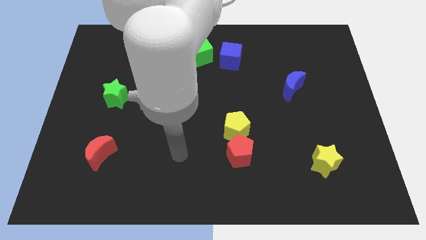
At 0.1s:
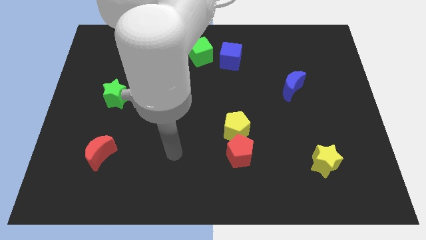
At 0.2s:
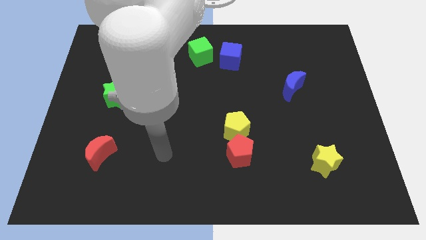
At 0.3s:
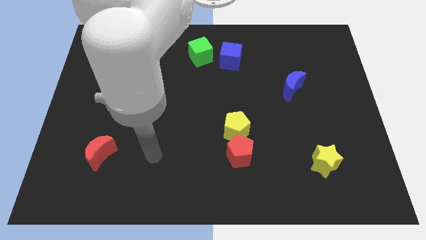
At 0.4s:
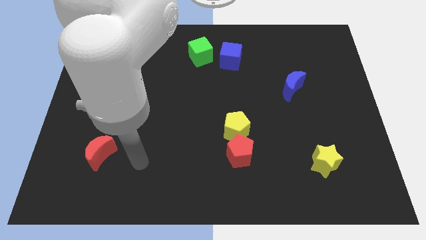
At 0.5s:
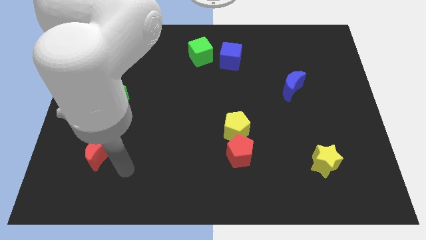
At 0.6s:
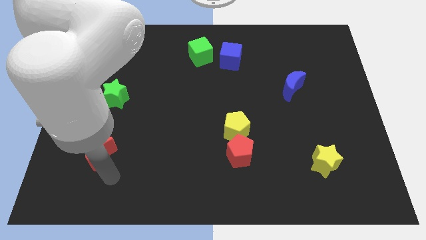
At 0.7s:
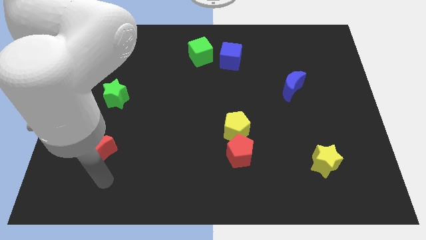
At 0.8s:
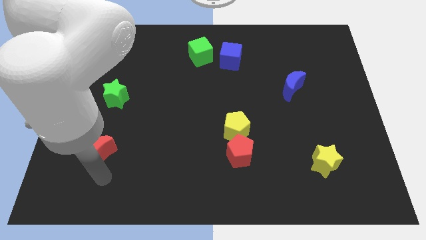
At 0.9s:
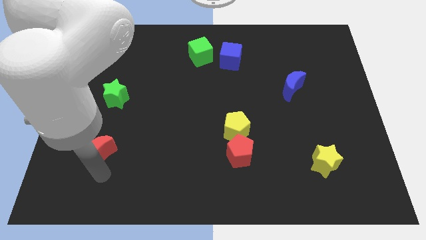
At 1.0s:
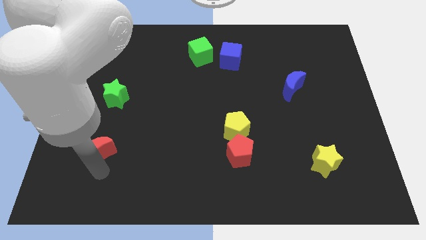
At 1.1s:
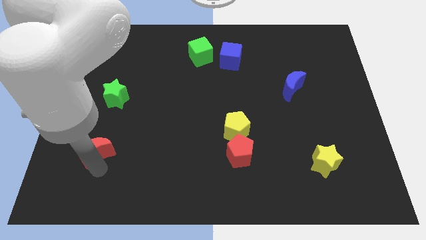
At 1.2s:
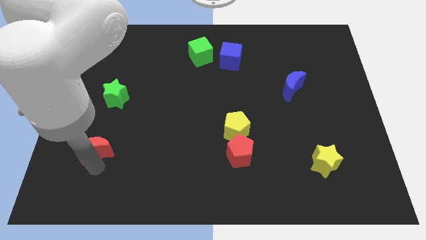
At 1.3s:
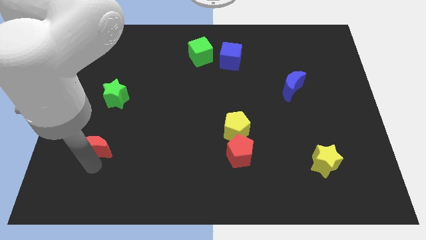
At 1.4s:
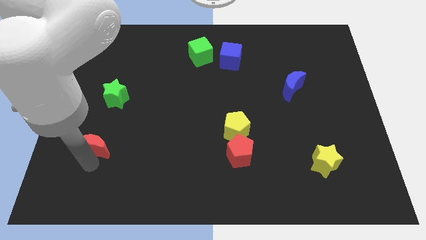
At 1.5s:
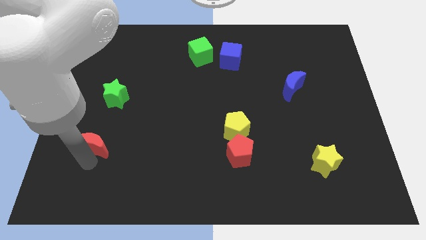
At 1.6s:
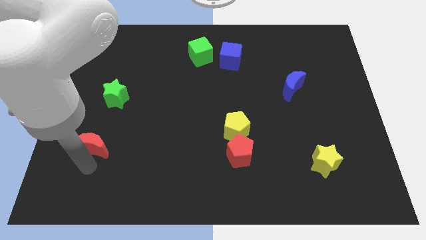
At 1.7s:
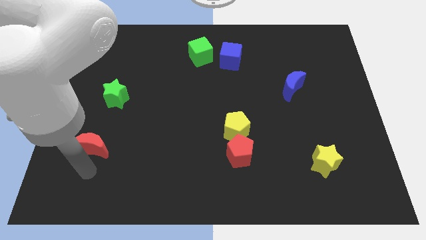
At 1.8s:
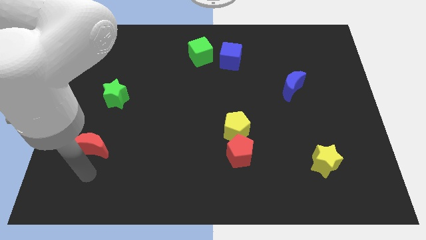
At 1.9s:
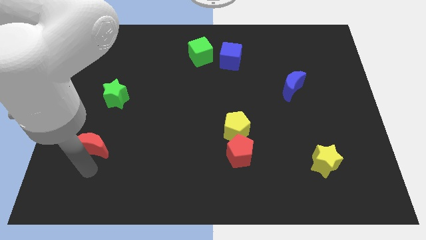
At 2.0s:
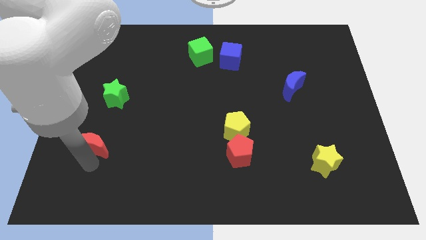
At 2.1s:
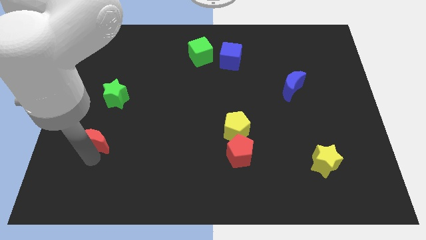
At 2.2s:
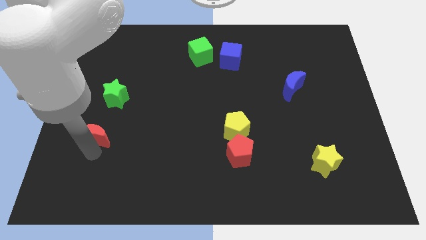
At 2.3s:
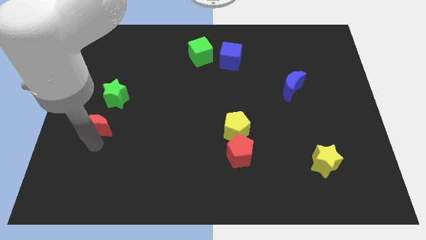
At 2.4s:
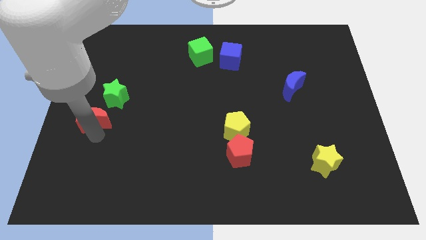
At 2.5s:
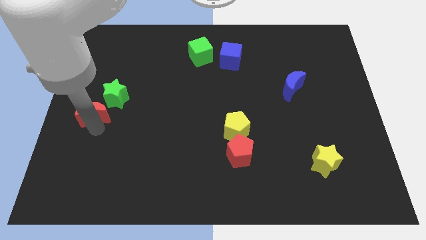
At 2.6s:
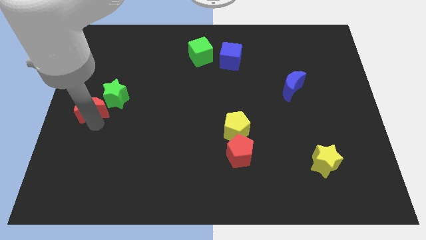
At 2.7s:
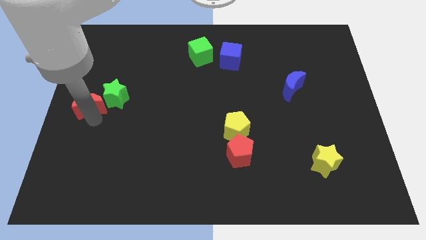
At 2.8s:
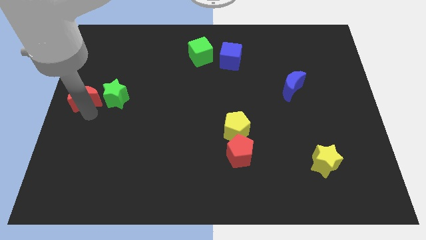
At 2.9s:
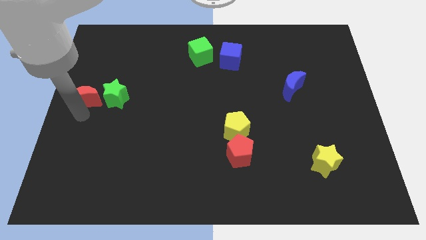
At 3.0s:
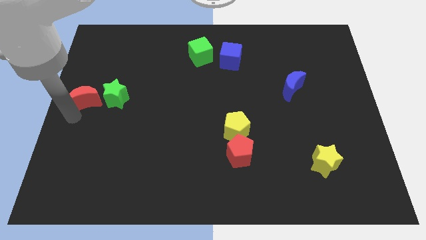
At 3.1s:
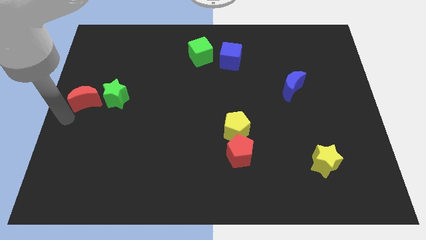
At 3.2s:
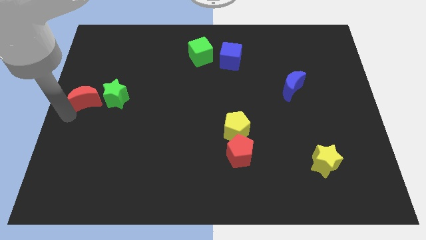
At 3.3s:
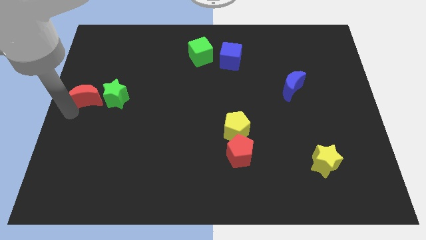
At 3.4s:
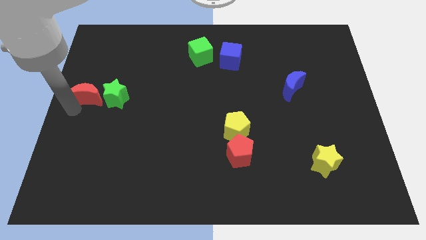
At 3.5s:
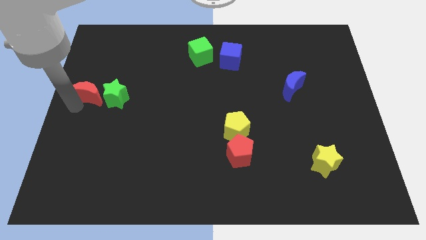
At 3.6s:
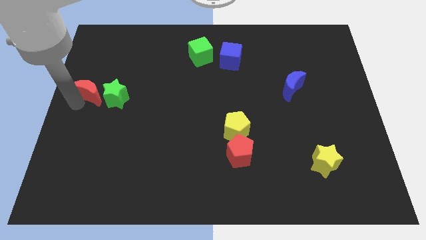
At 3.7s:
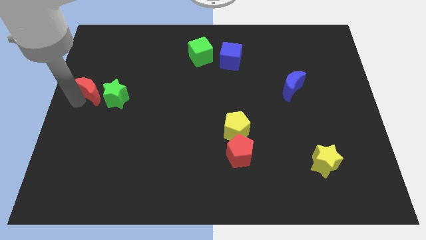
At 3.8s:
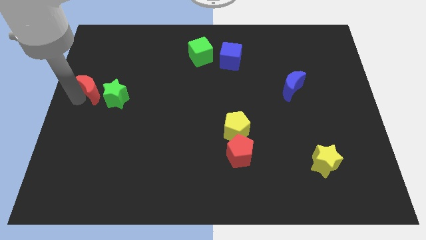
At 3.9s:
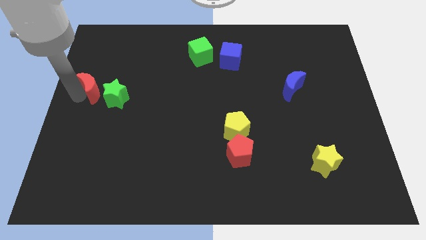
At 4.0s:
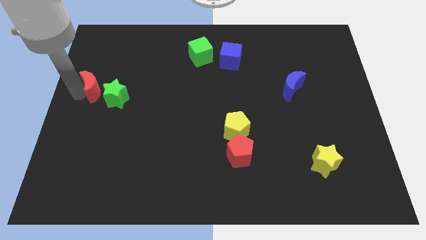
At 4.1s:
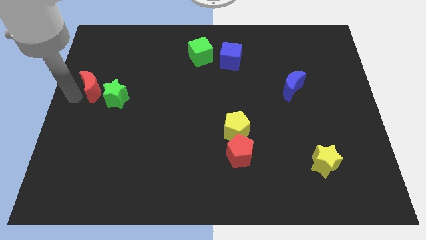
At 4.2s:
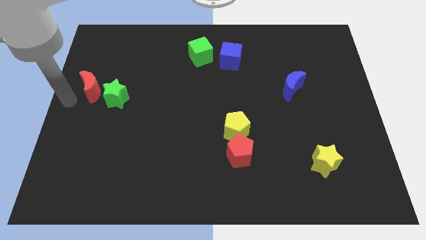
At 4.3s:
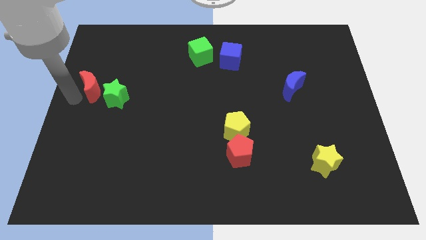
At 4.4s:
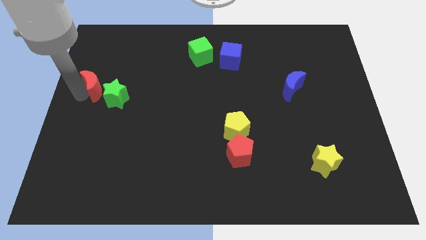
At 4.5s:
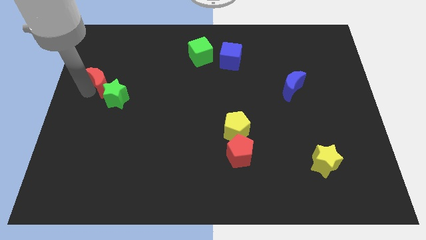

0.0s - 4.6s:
slide the red moon to the top of the green star

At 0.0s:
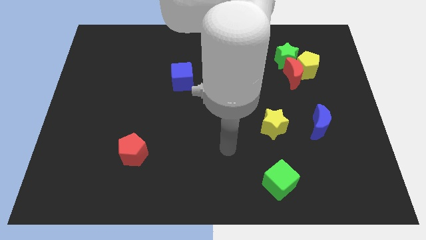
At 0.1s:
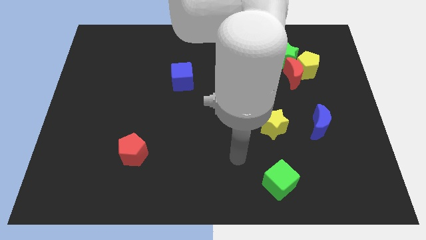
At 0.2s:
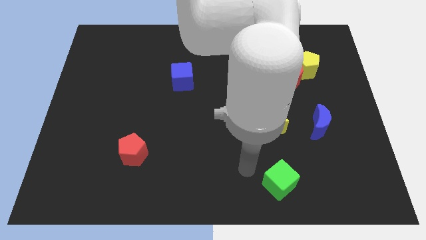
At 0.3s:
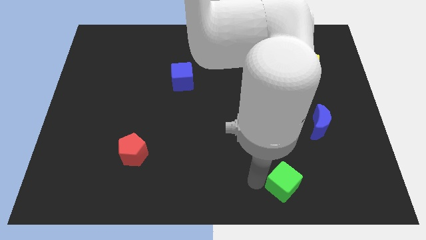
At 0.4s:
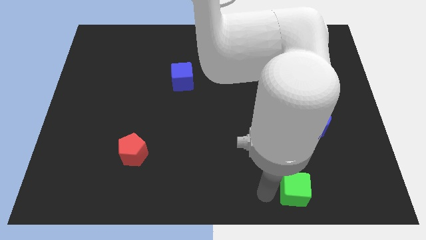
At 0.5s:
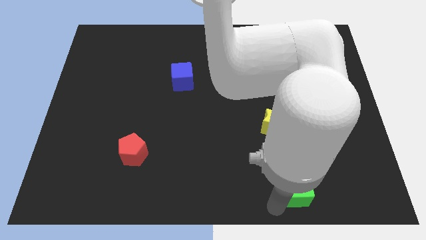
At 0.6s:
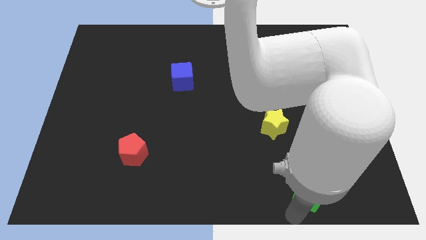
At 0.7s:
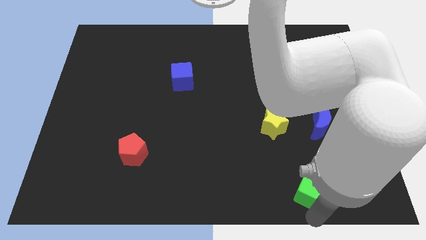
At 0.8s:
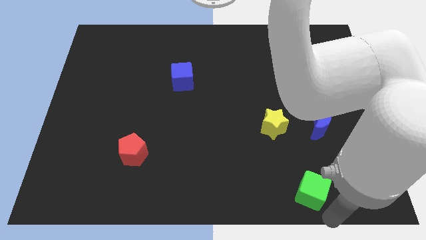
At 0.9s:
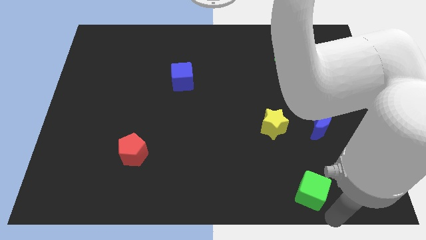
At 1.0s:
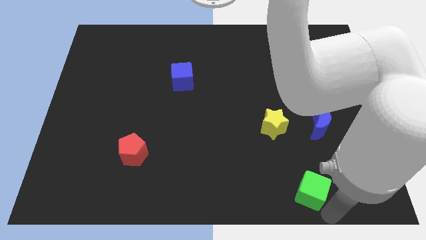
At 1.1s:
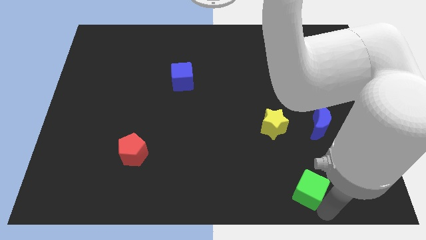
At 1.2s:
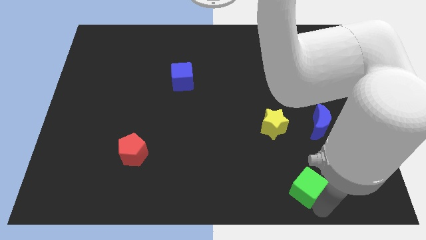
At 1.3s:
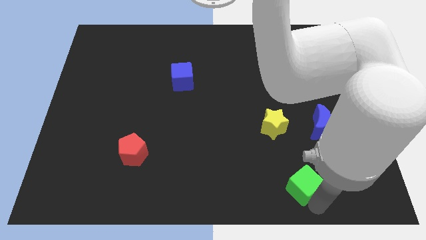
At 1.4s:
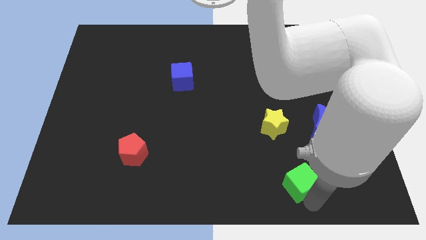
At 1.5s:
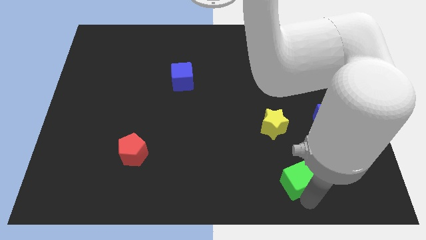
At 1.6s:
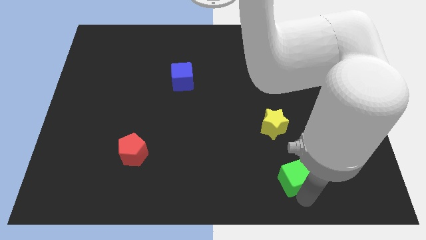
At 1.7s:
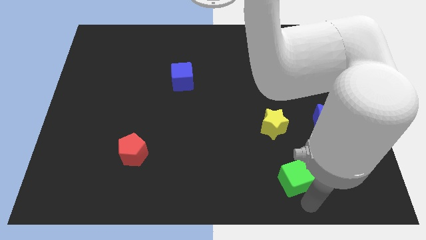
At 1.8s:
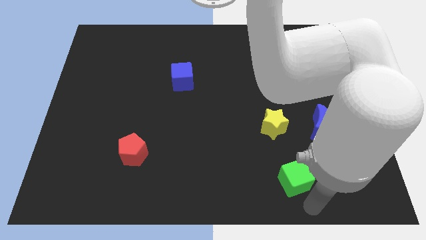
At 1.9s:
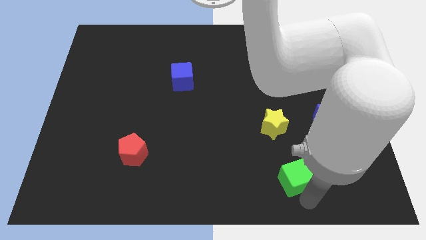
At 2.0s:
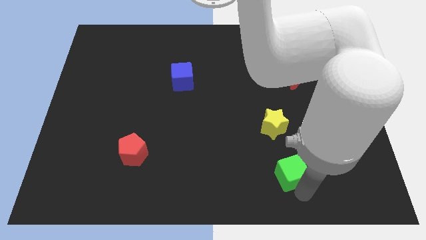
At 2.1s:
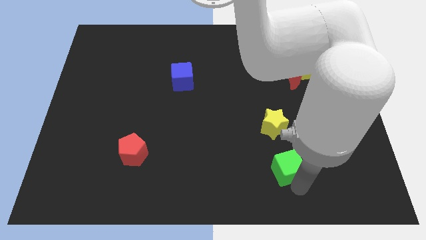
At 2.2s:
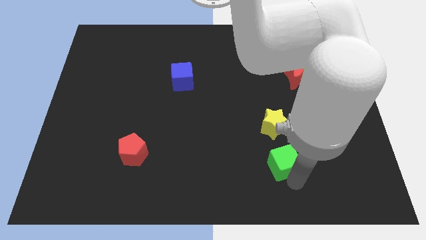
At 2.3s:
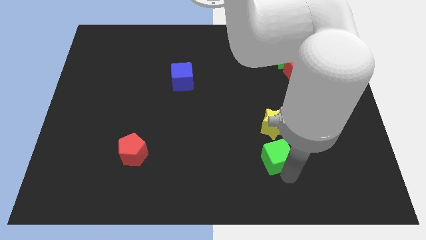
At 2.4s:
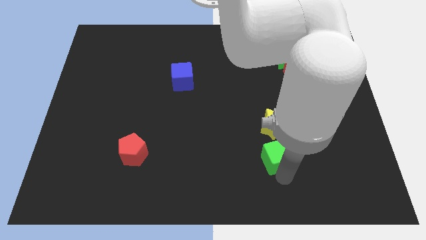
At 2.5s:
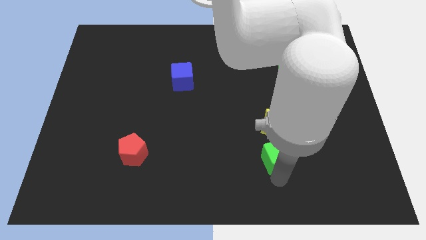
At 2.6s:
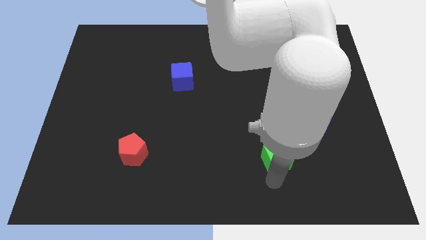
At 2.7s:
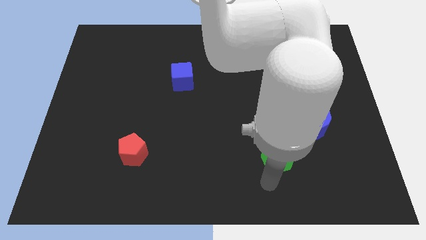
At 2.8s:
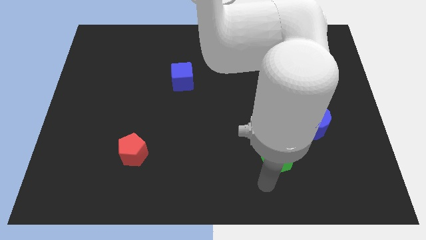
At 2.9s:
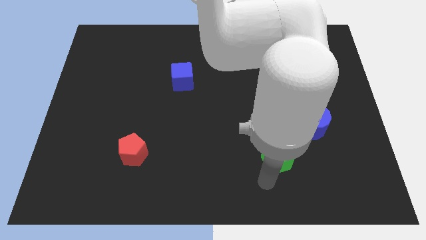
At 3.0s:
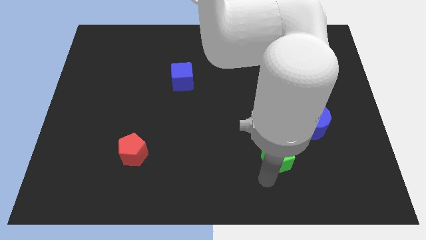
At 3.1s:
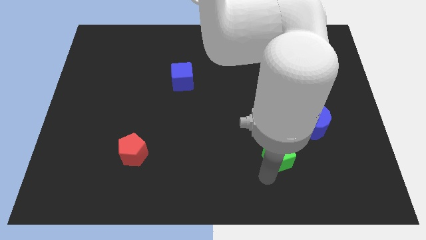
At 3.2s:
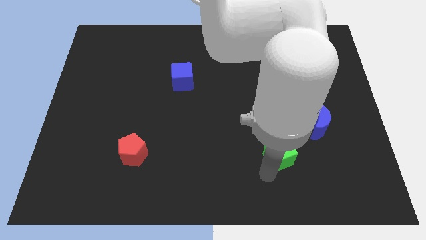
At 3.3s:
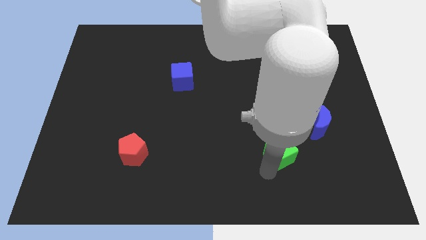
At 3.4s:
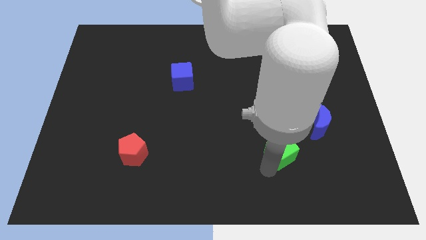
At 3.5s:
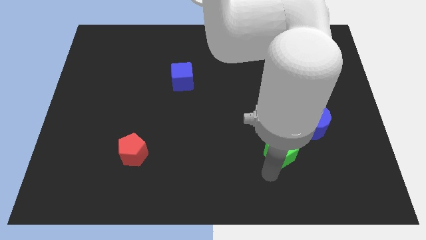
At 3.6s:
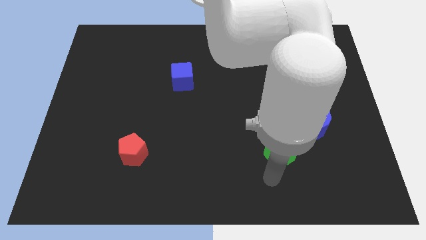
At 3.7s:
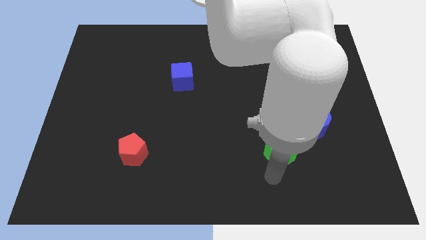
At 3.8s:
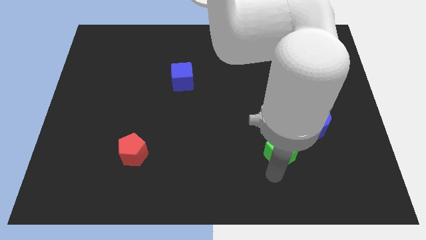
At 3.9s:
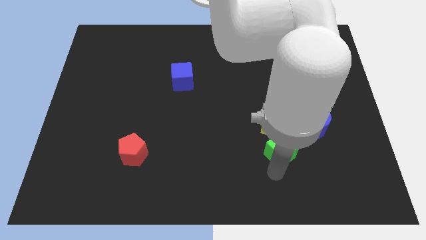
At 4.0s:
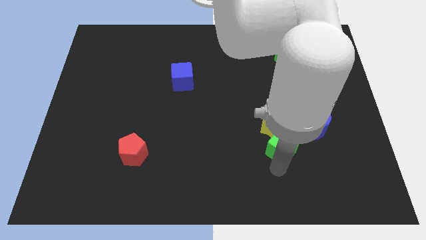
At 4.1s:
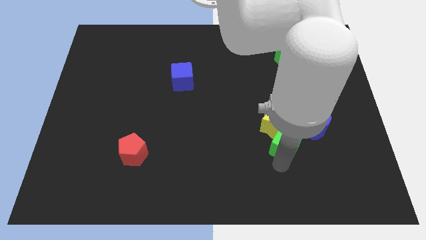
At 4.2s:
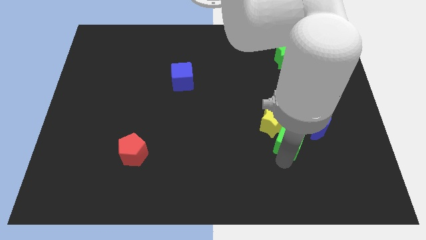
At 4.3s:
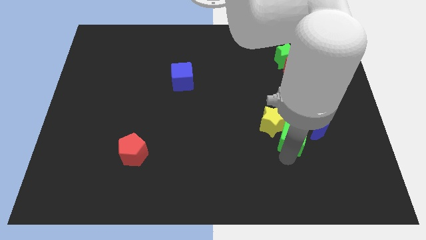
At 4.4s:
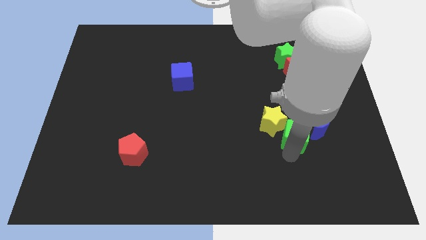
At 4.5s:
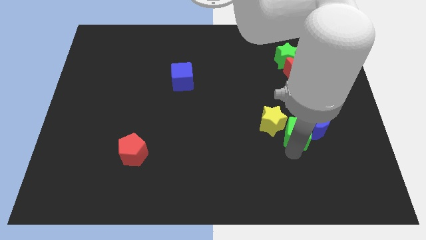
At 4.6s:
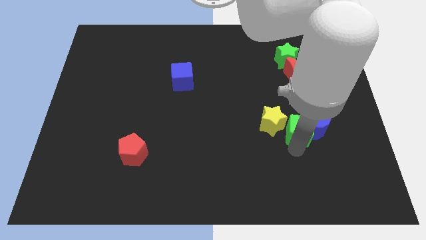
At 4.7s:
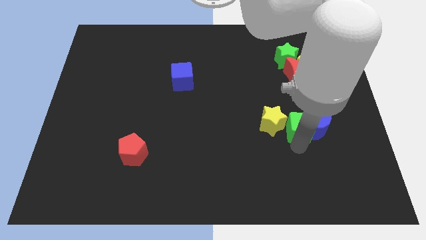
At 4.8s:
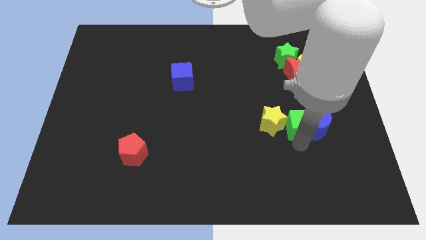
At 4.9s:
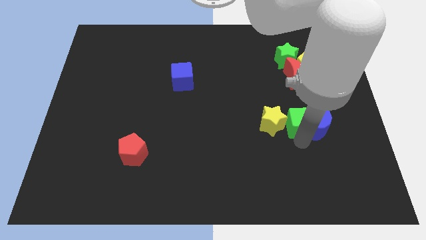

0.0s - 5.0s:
slide the green cube to the top right of the yellow star
